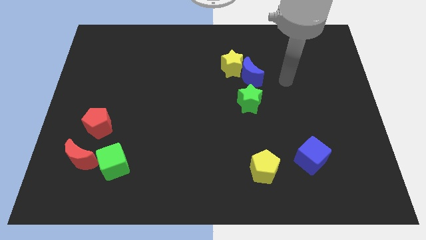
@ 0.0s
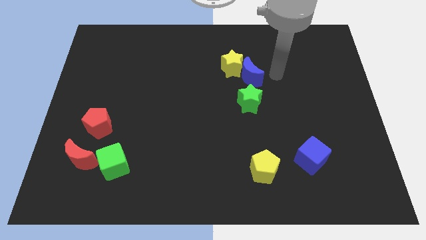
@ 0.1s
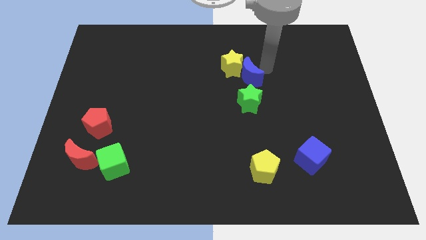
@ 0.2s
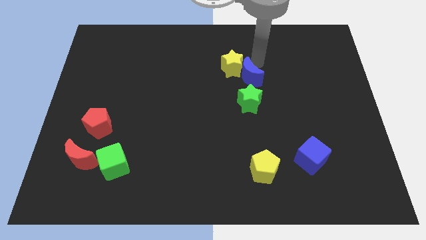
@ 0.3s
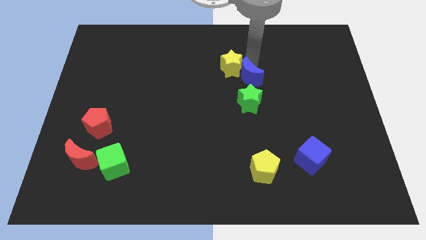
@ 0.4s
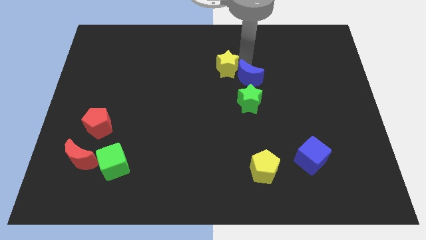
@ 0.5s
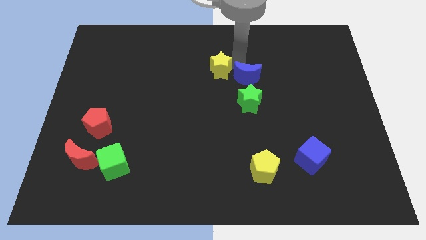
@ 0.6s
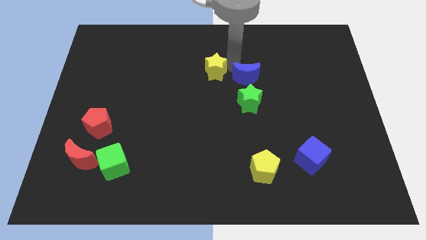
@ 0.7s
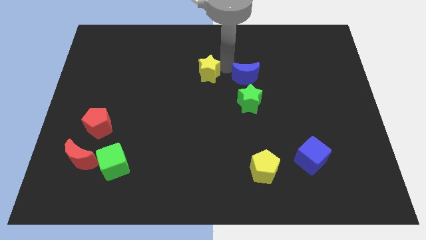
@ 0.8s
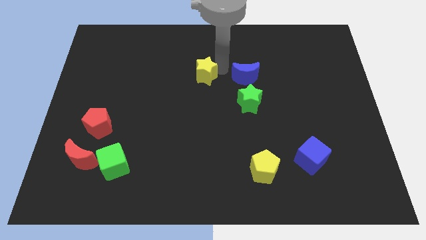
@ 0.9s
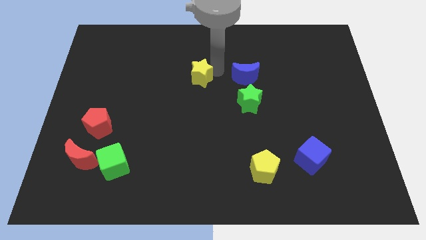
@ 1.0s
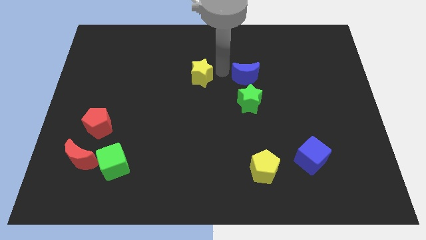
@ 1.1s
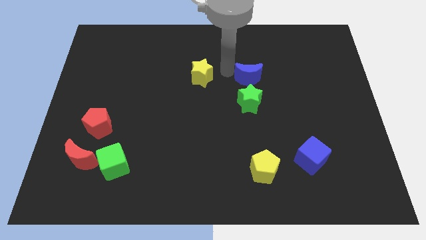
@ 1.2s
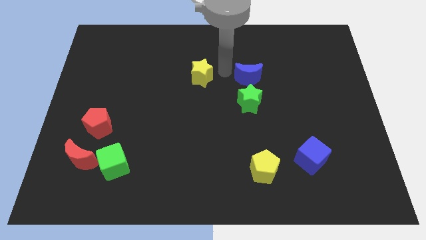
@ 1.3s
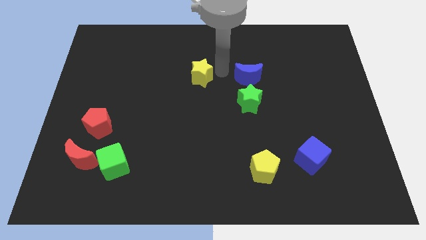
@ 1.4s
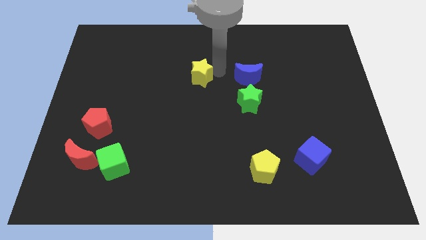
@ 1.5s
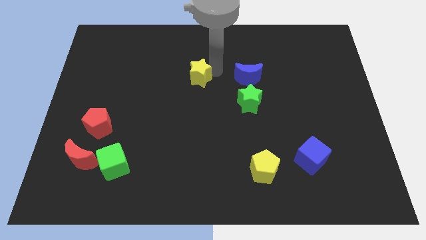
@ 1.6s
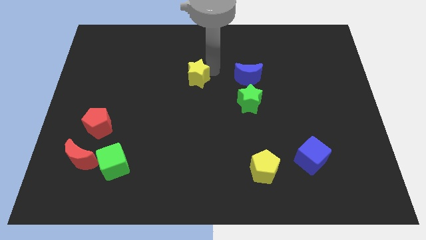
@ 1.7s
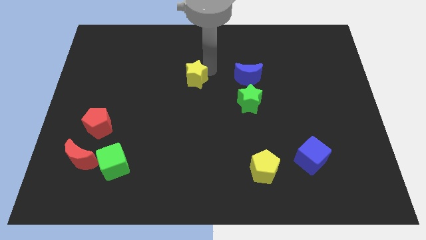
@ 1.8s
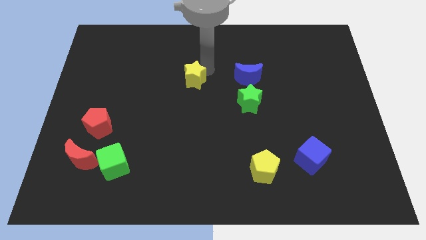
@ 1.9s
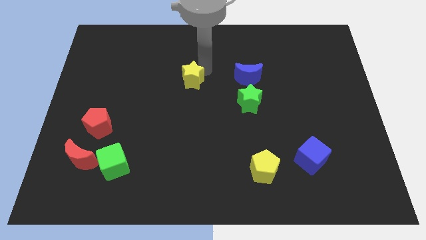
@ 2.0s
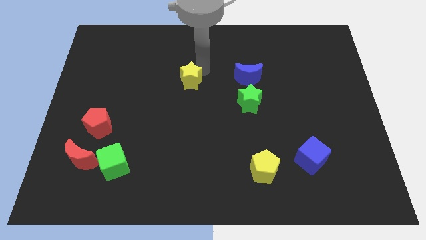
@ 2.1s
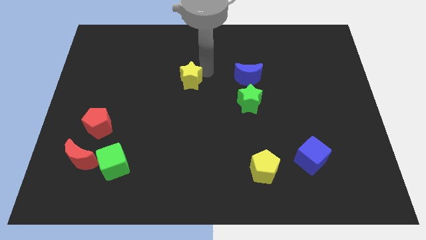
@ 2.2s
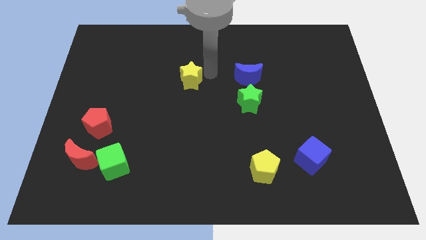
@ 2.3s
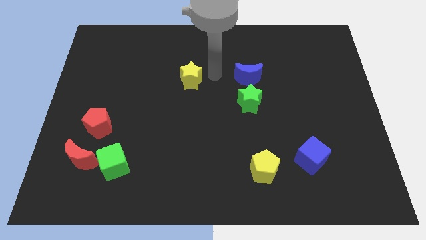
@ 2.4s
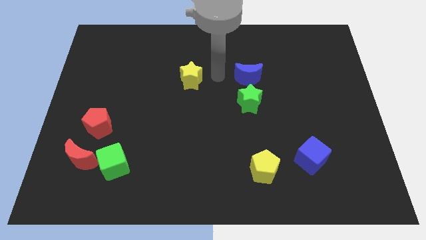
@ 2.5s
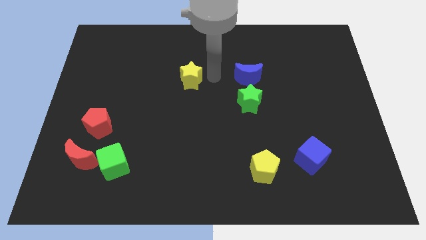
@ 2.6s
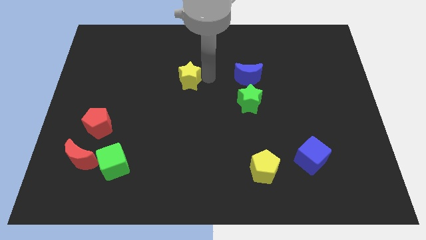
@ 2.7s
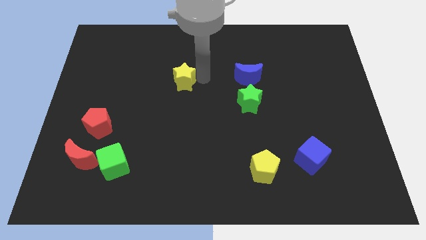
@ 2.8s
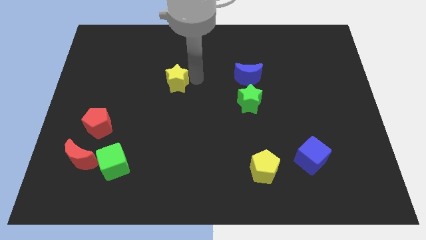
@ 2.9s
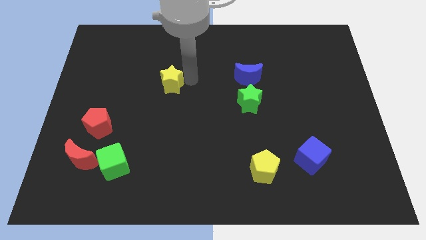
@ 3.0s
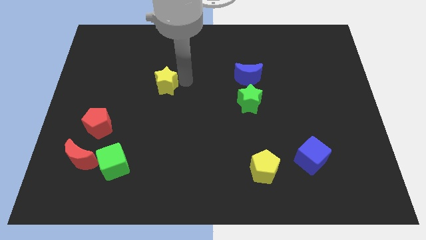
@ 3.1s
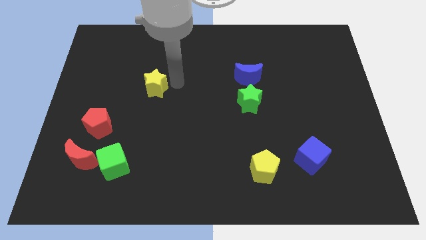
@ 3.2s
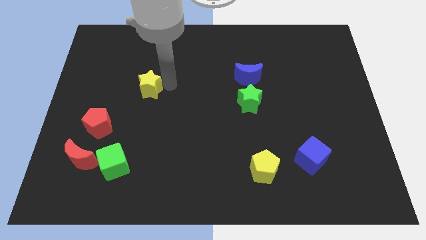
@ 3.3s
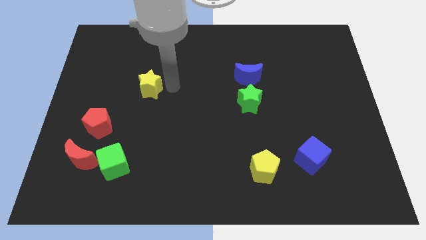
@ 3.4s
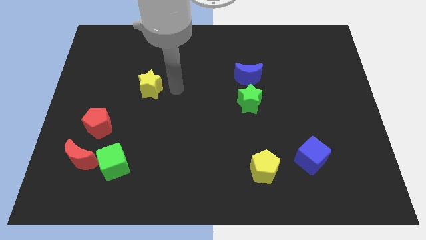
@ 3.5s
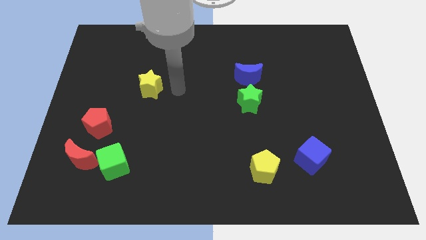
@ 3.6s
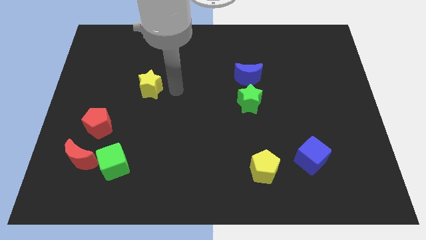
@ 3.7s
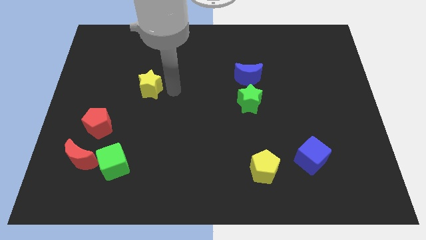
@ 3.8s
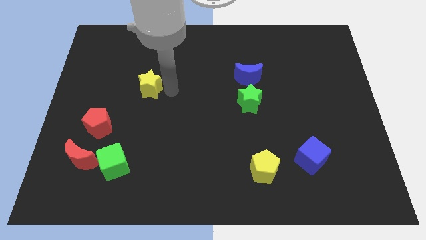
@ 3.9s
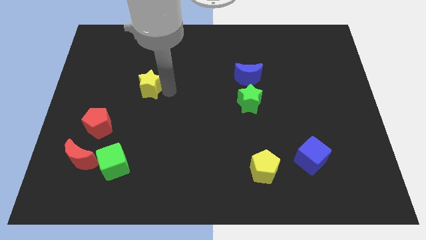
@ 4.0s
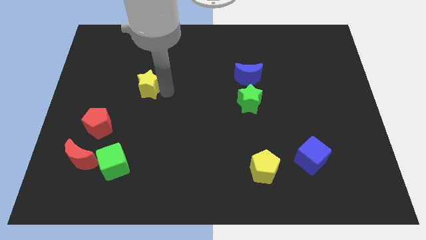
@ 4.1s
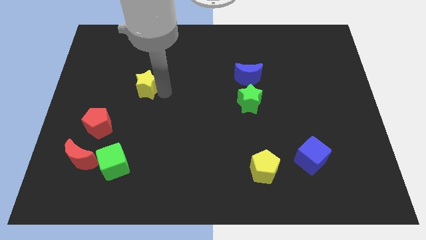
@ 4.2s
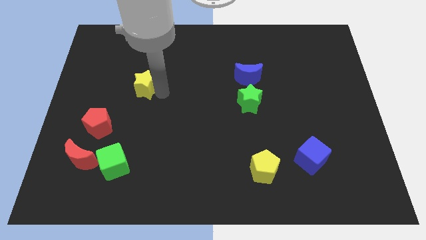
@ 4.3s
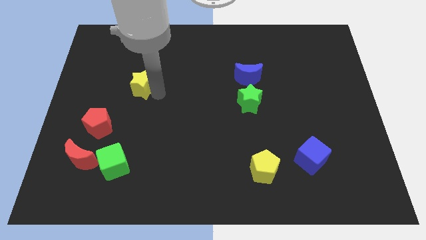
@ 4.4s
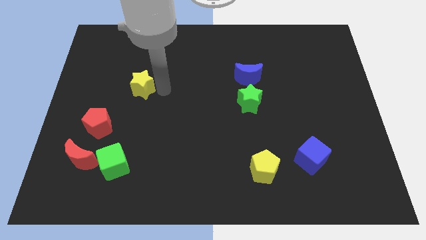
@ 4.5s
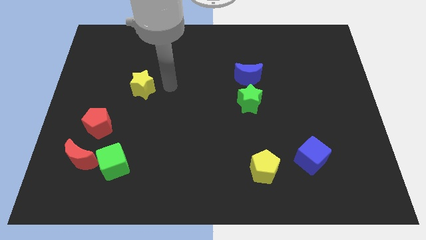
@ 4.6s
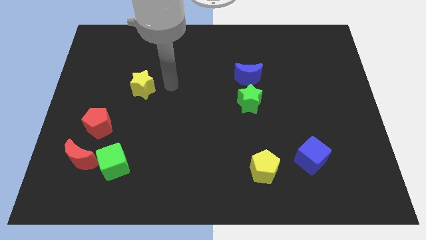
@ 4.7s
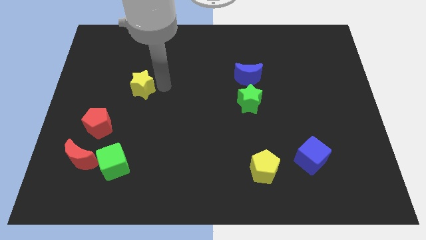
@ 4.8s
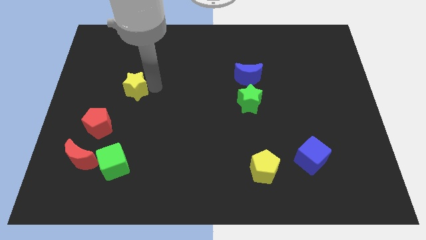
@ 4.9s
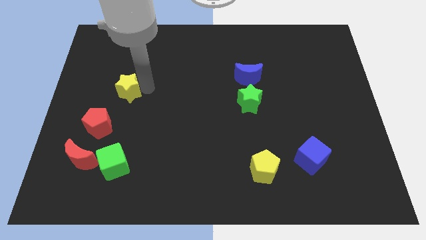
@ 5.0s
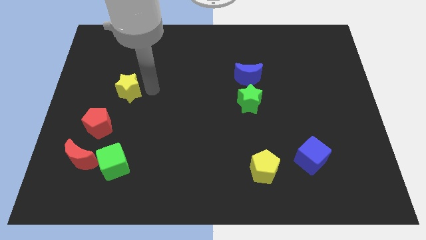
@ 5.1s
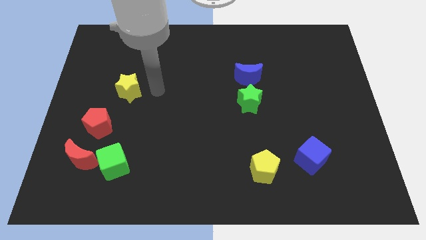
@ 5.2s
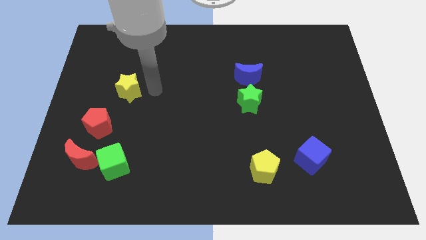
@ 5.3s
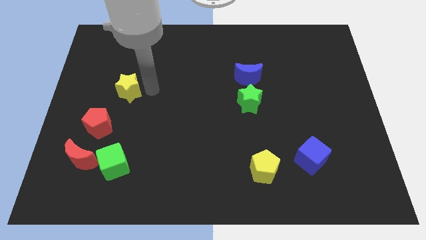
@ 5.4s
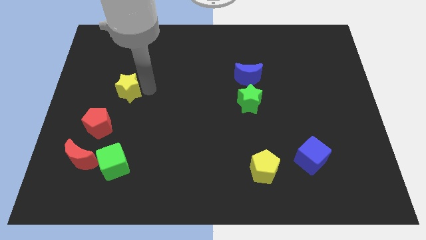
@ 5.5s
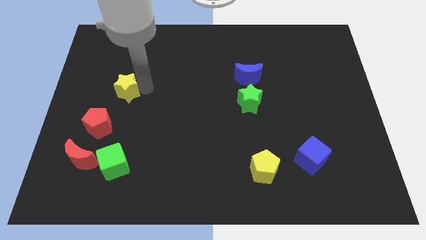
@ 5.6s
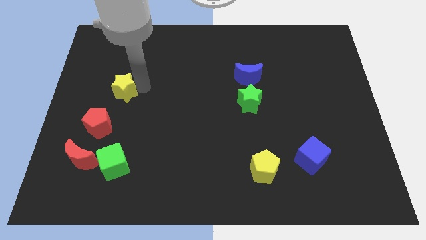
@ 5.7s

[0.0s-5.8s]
move the yellow star to the top of the red pentagon

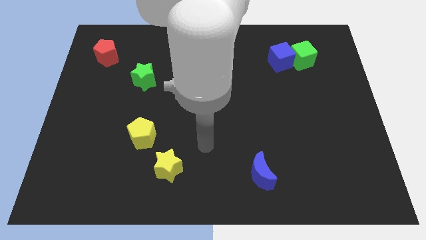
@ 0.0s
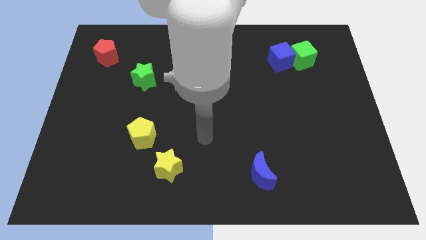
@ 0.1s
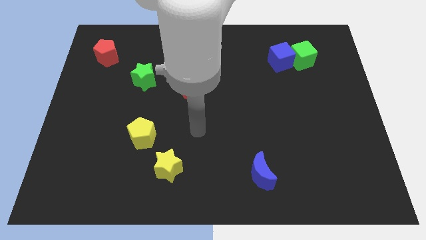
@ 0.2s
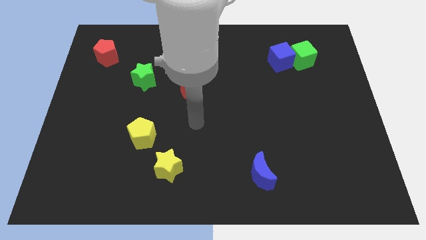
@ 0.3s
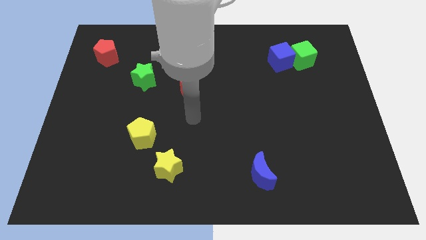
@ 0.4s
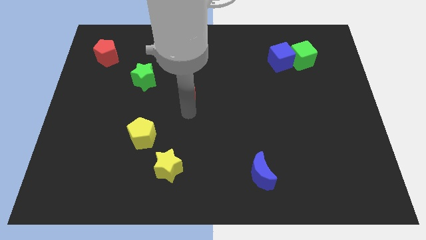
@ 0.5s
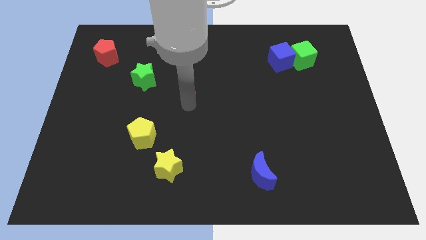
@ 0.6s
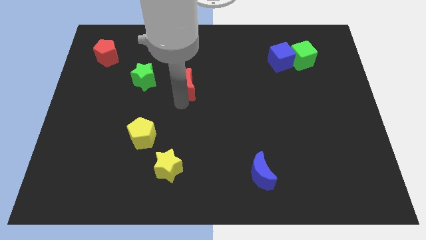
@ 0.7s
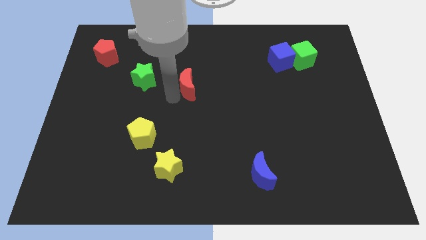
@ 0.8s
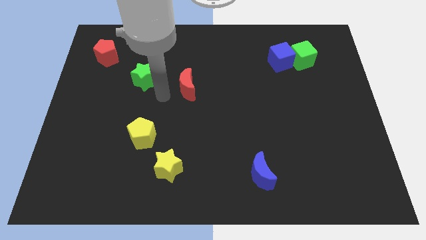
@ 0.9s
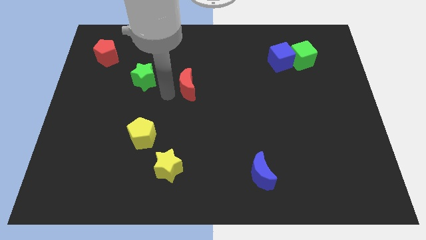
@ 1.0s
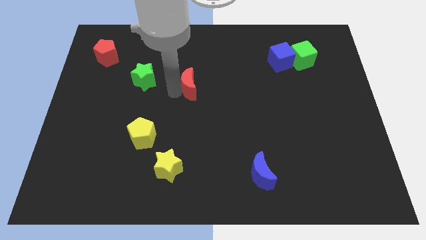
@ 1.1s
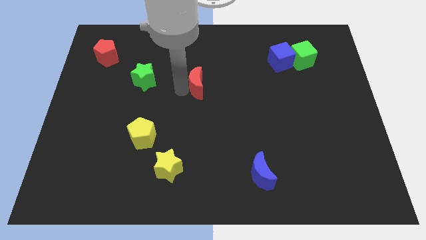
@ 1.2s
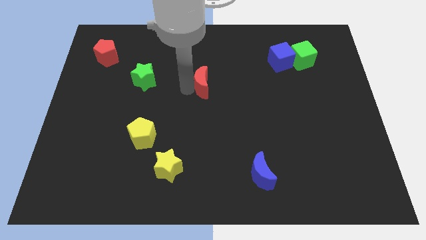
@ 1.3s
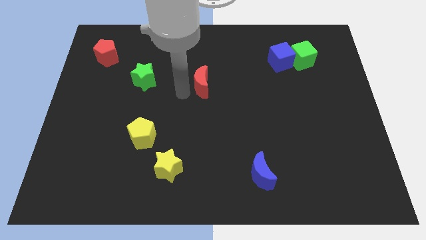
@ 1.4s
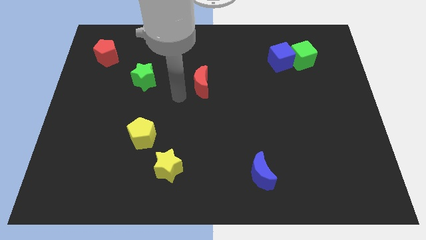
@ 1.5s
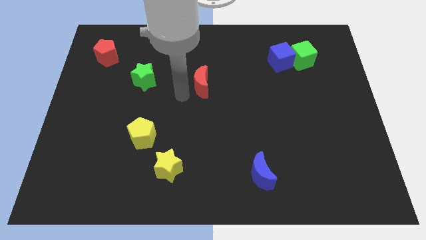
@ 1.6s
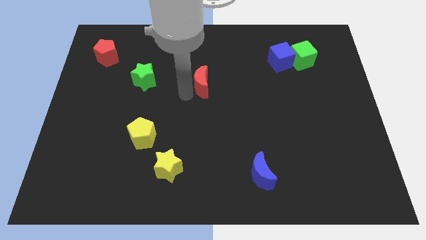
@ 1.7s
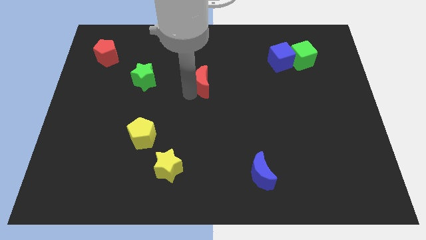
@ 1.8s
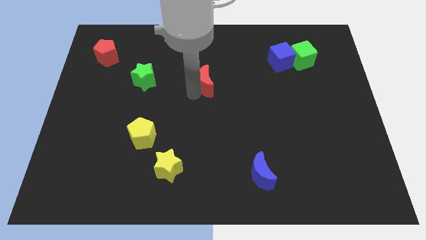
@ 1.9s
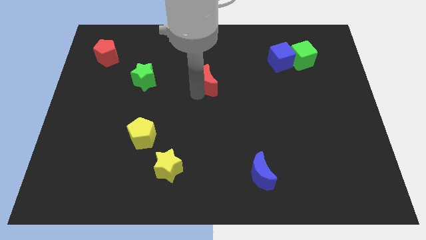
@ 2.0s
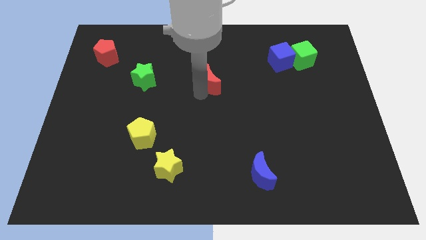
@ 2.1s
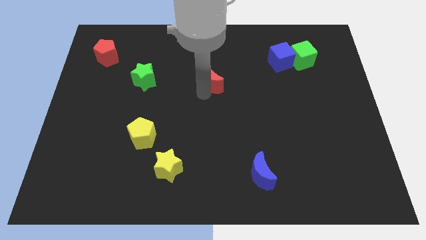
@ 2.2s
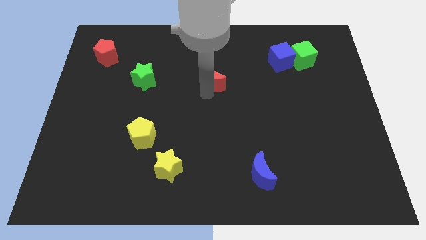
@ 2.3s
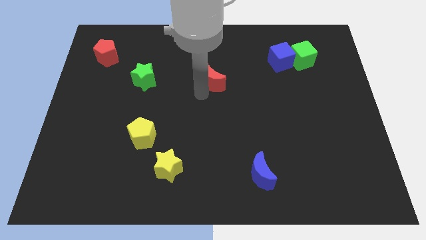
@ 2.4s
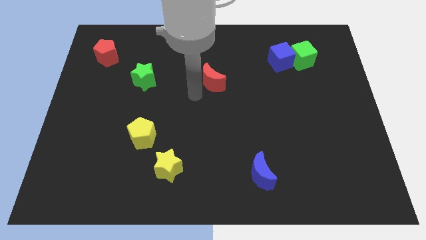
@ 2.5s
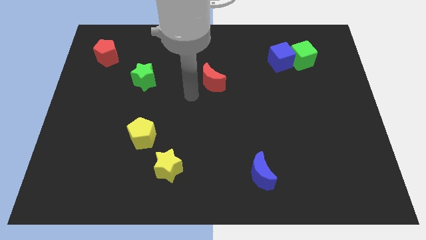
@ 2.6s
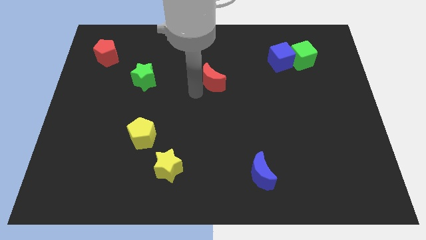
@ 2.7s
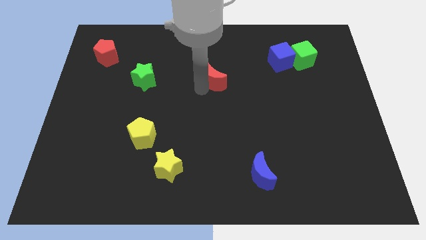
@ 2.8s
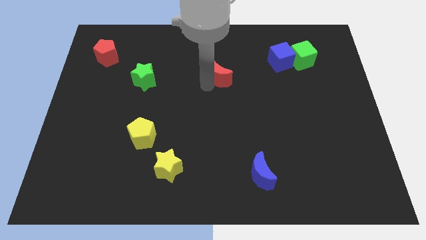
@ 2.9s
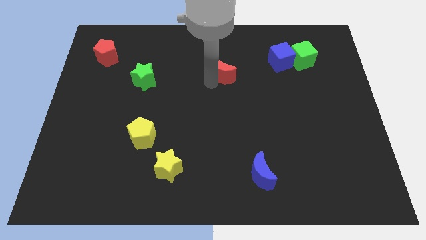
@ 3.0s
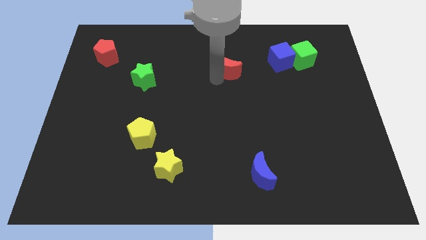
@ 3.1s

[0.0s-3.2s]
slide the red moon to the left of the blue cube
